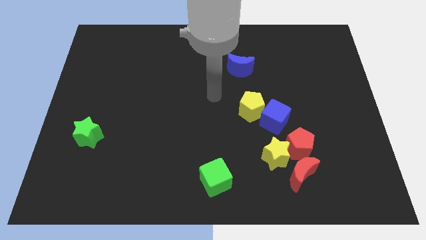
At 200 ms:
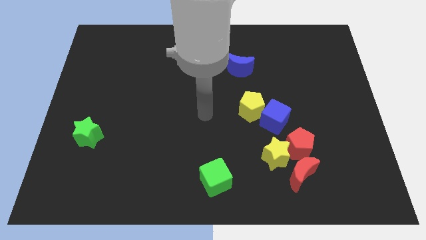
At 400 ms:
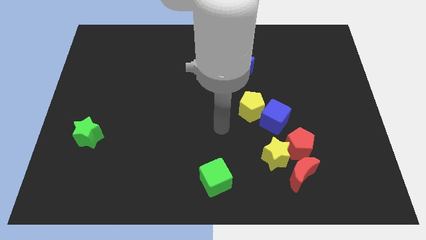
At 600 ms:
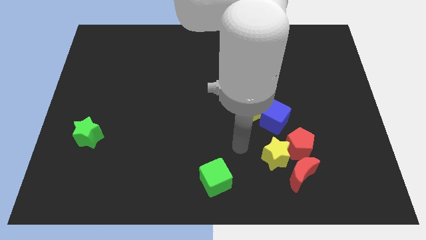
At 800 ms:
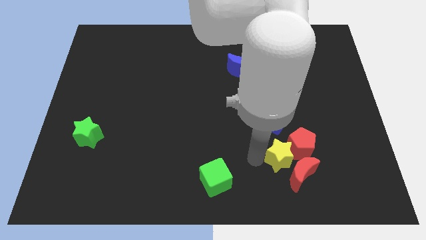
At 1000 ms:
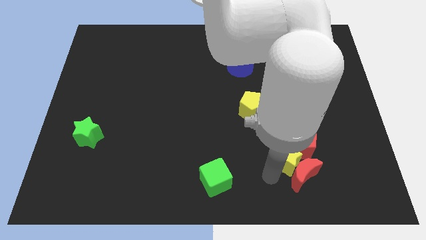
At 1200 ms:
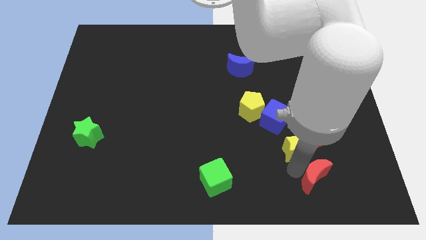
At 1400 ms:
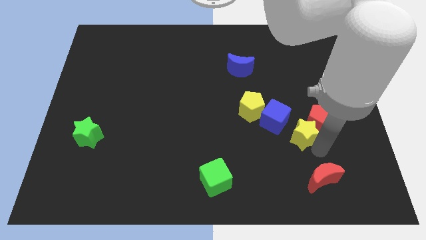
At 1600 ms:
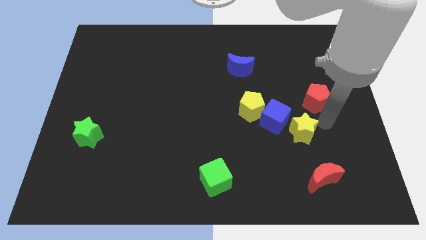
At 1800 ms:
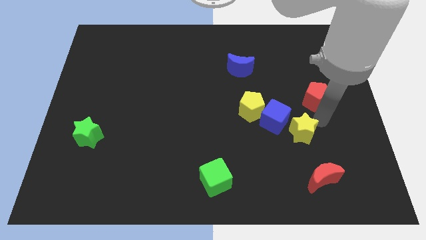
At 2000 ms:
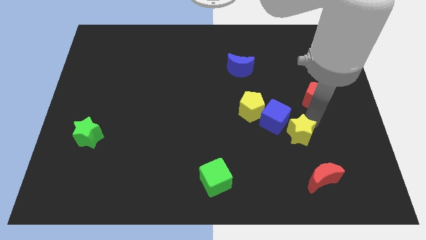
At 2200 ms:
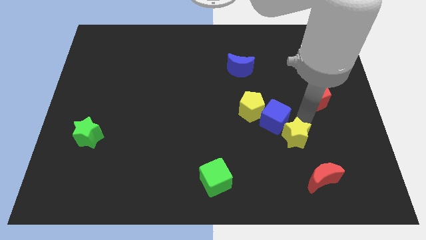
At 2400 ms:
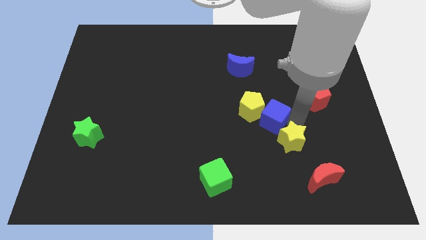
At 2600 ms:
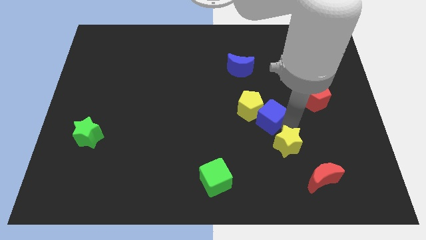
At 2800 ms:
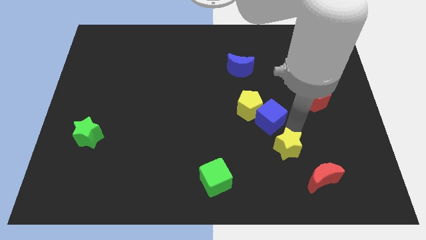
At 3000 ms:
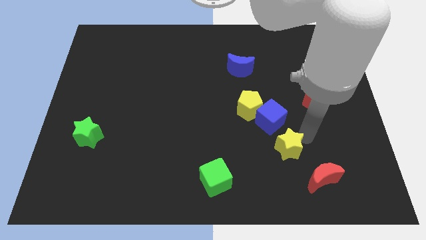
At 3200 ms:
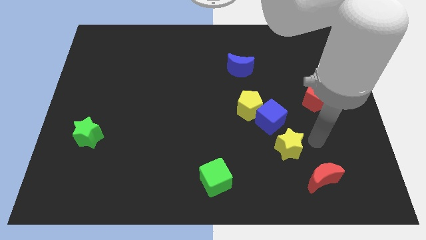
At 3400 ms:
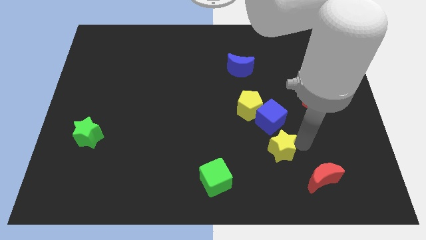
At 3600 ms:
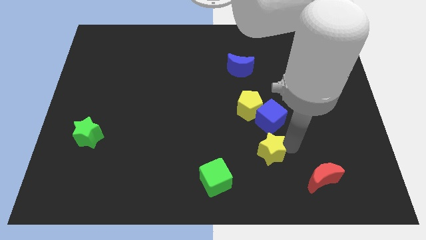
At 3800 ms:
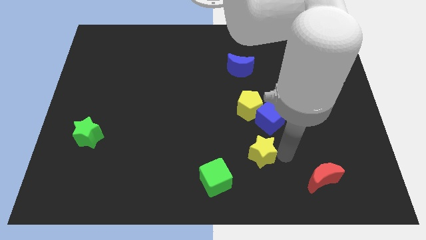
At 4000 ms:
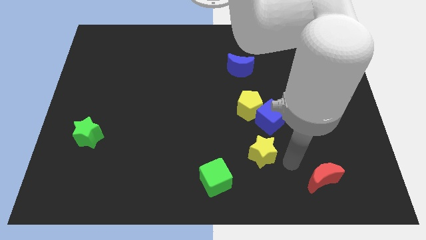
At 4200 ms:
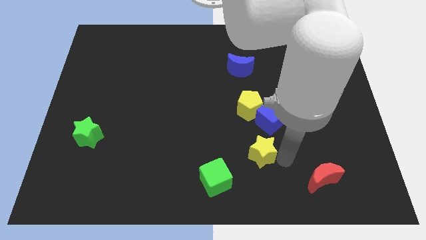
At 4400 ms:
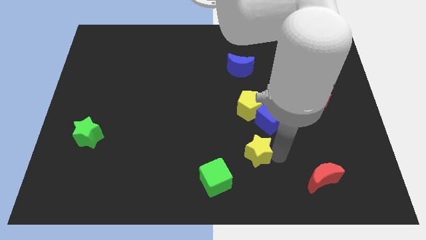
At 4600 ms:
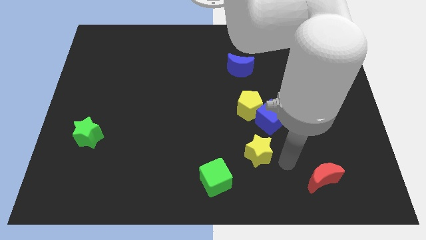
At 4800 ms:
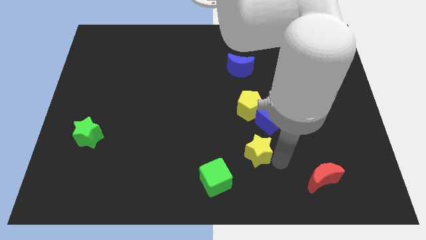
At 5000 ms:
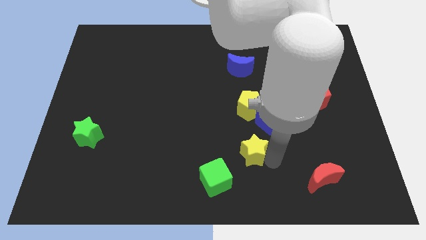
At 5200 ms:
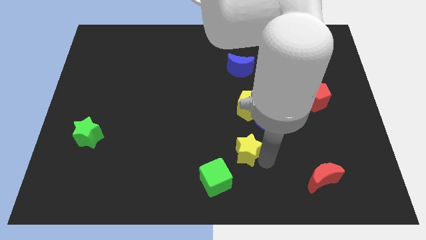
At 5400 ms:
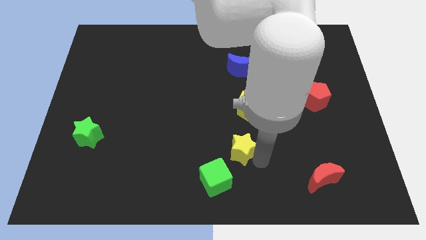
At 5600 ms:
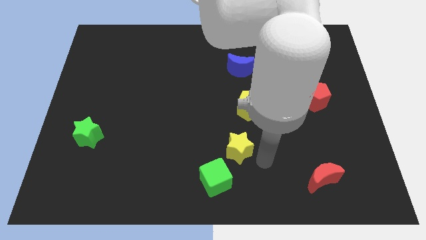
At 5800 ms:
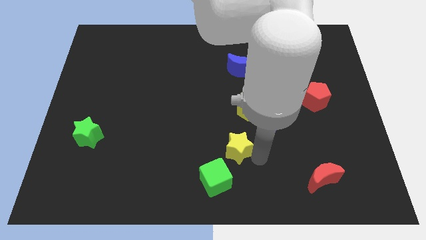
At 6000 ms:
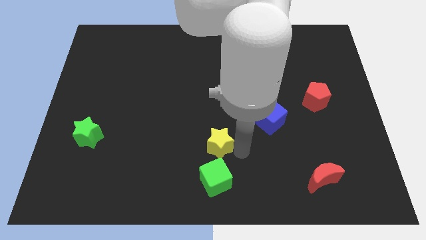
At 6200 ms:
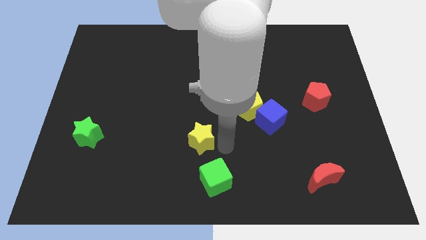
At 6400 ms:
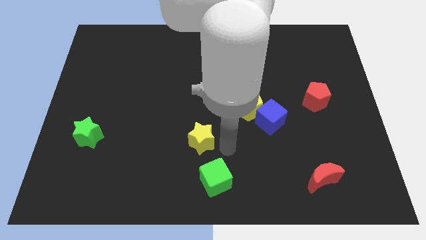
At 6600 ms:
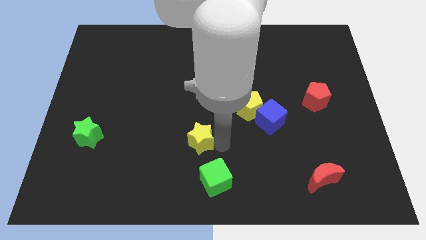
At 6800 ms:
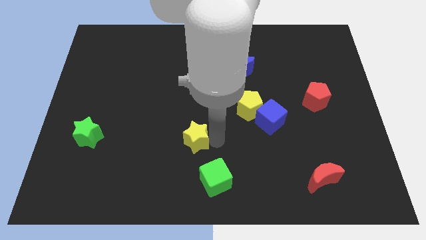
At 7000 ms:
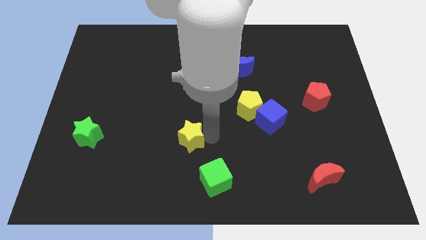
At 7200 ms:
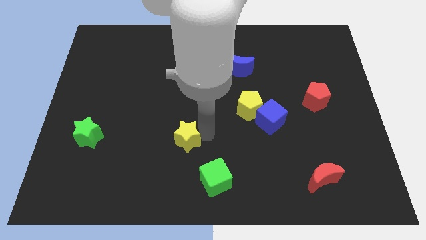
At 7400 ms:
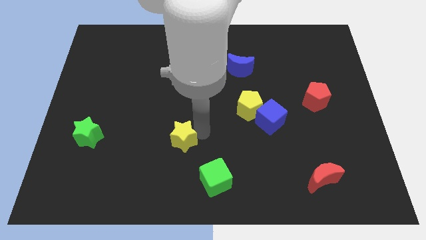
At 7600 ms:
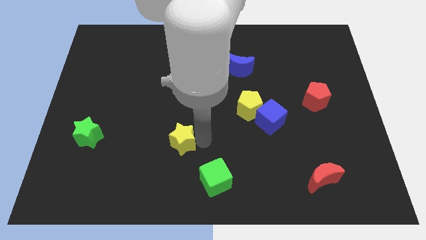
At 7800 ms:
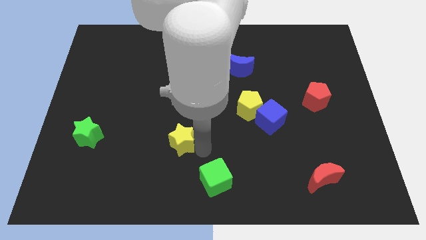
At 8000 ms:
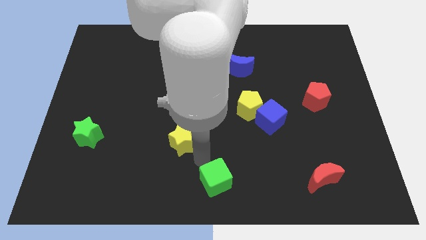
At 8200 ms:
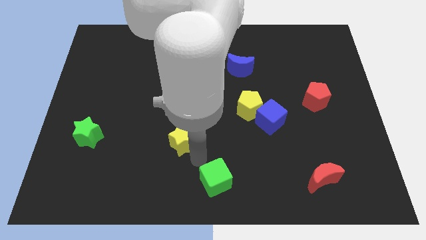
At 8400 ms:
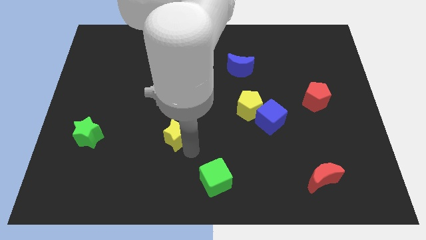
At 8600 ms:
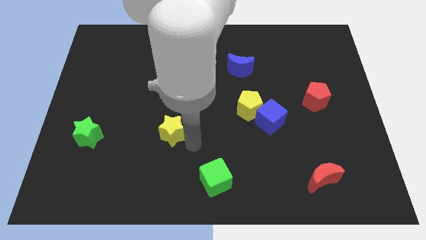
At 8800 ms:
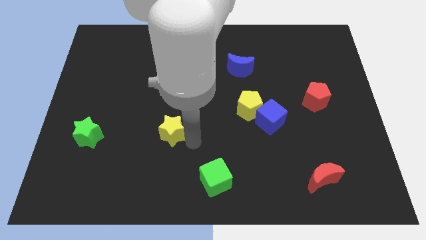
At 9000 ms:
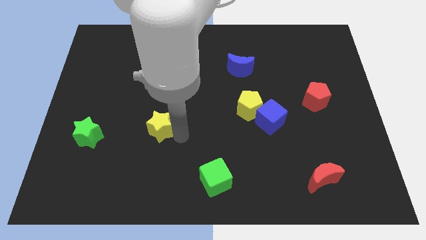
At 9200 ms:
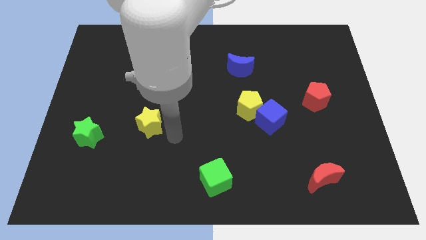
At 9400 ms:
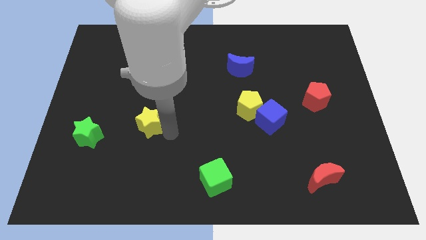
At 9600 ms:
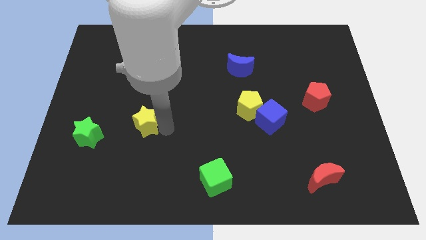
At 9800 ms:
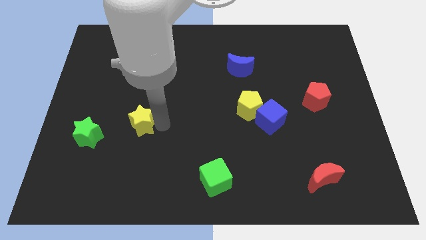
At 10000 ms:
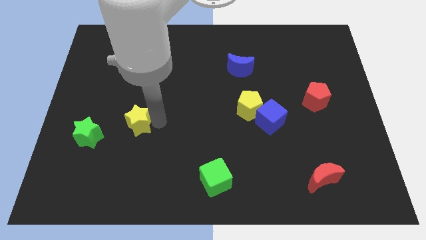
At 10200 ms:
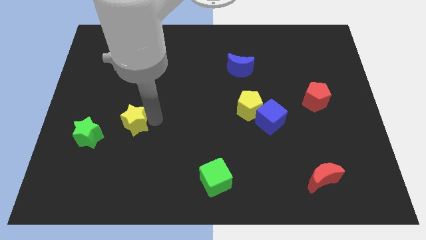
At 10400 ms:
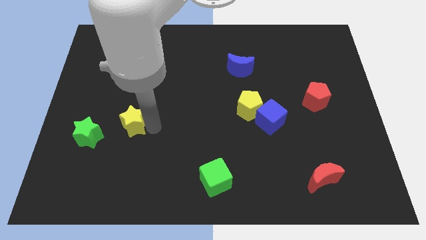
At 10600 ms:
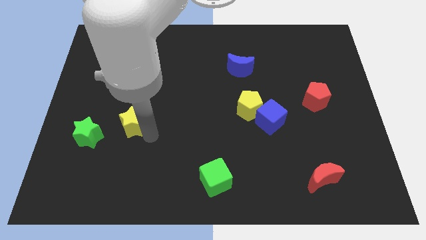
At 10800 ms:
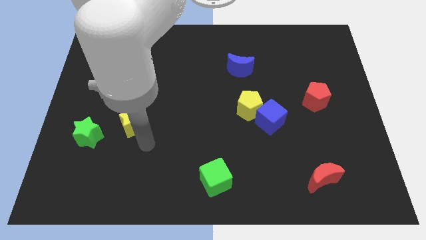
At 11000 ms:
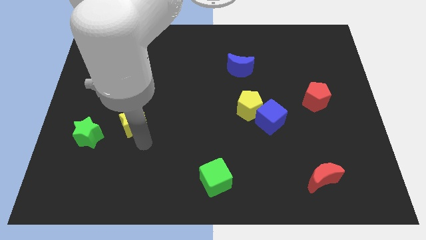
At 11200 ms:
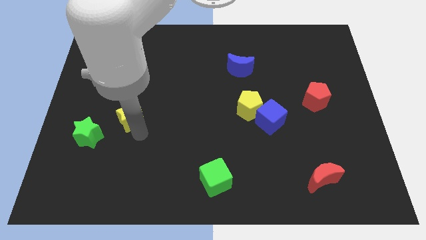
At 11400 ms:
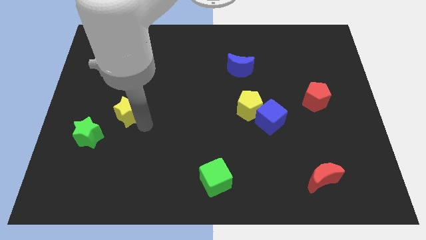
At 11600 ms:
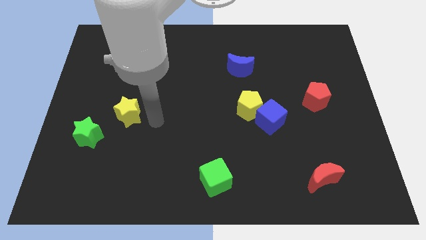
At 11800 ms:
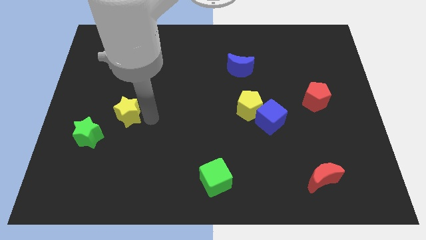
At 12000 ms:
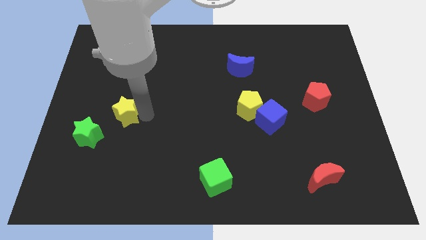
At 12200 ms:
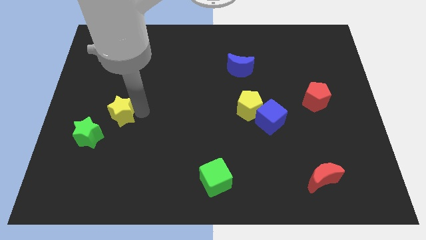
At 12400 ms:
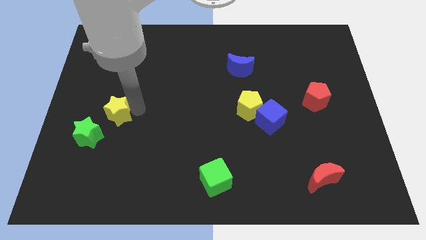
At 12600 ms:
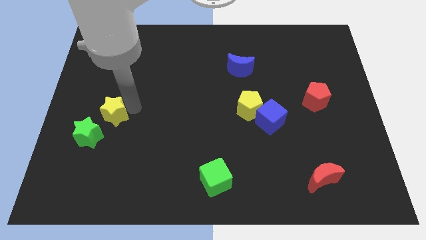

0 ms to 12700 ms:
push the yellow star to the top of the green star

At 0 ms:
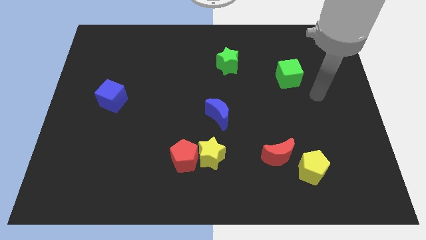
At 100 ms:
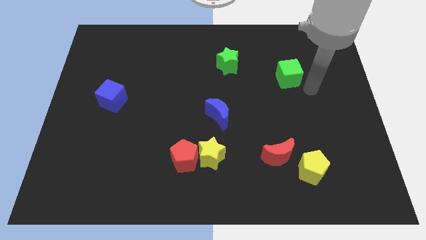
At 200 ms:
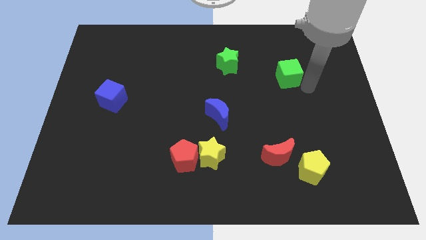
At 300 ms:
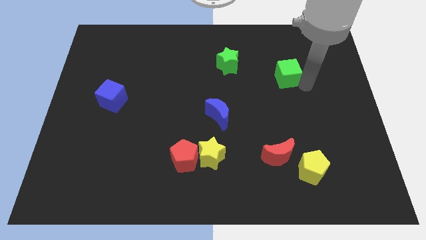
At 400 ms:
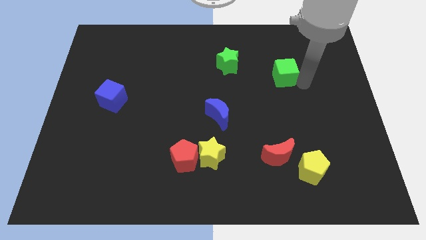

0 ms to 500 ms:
slide the green cube right of the green star
